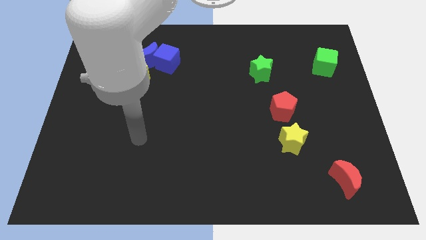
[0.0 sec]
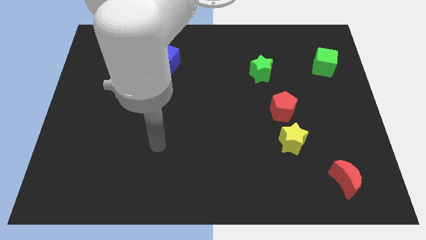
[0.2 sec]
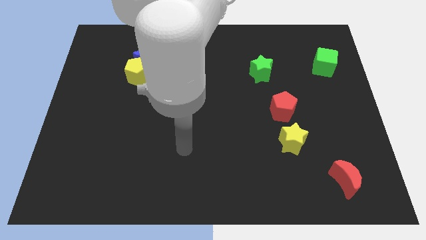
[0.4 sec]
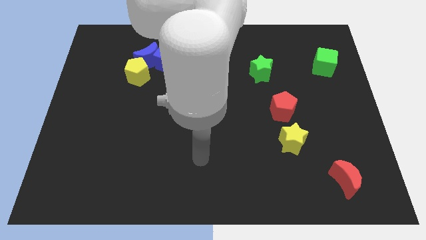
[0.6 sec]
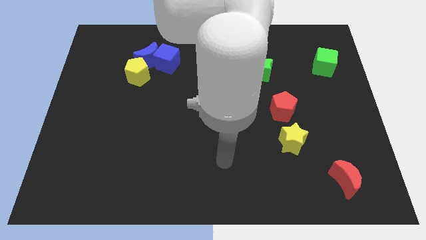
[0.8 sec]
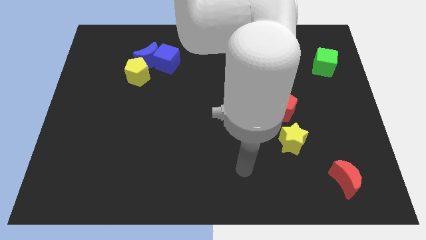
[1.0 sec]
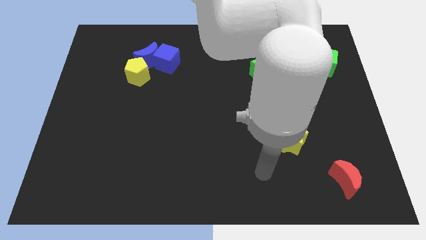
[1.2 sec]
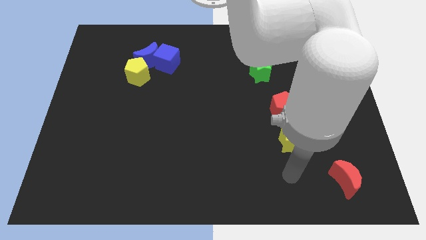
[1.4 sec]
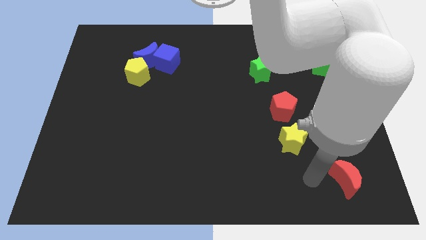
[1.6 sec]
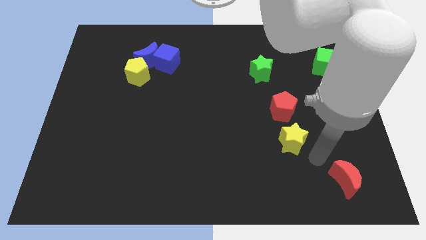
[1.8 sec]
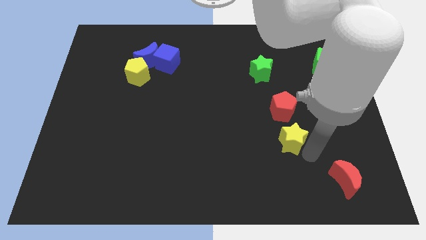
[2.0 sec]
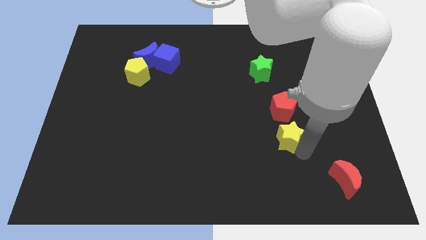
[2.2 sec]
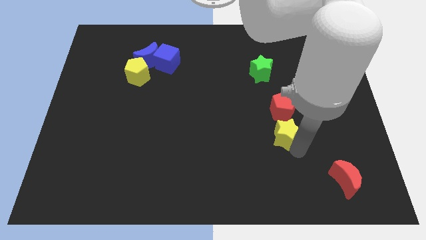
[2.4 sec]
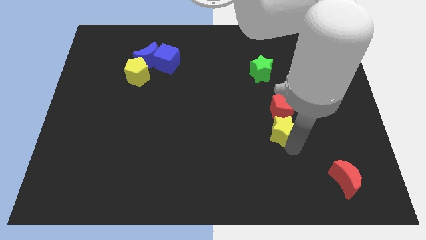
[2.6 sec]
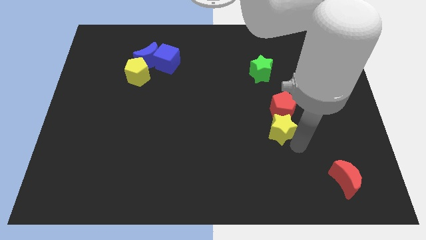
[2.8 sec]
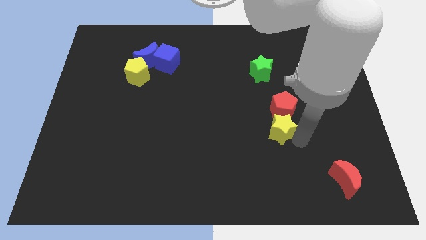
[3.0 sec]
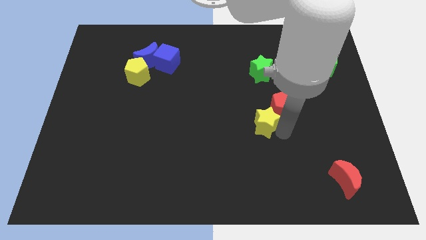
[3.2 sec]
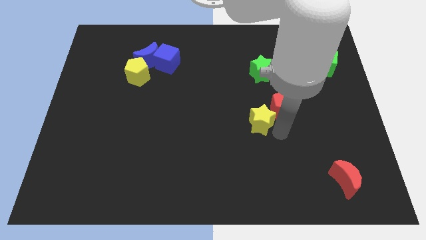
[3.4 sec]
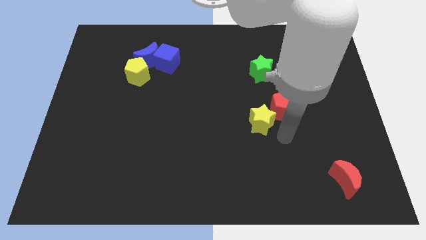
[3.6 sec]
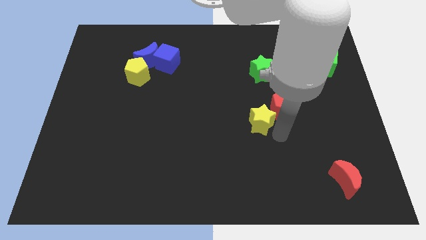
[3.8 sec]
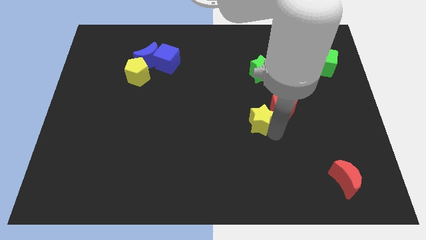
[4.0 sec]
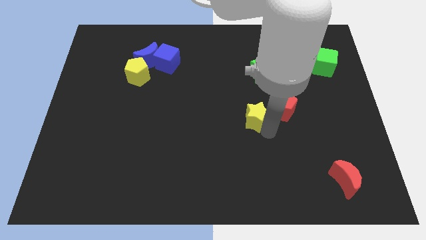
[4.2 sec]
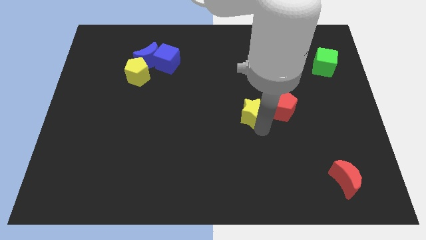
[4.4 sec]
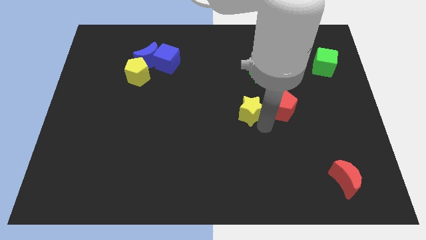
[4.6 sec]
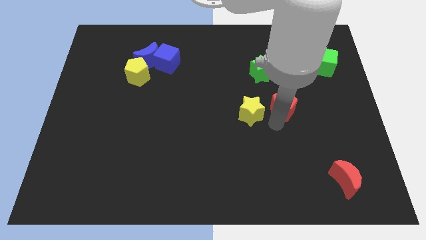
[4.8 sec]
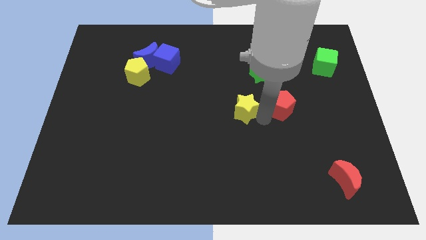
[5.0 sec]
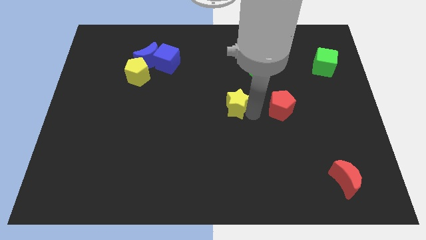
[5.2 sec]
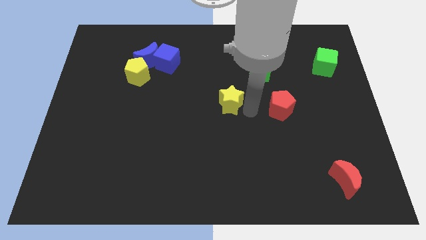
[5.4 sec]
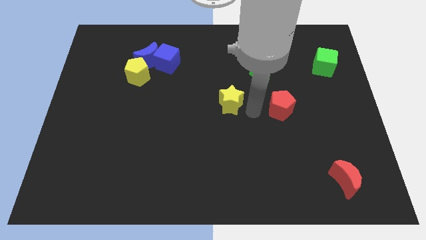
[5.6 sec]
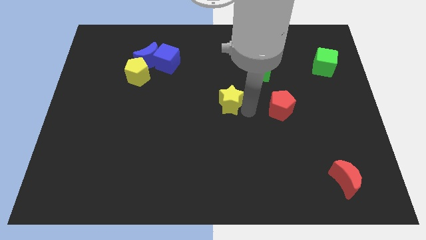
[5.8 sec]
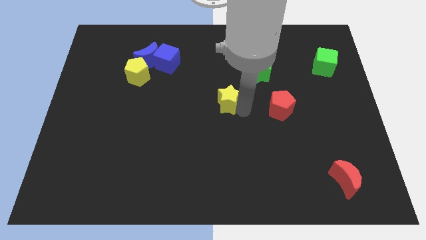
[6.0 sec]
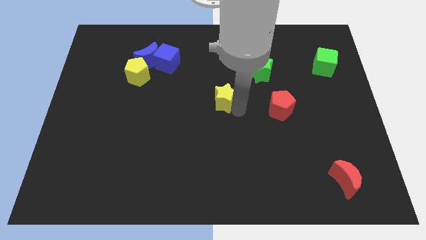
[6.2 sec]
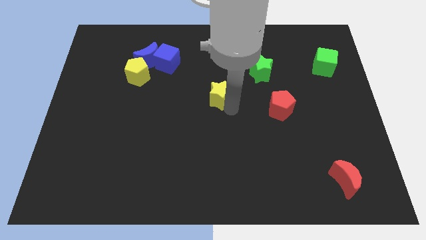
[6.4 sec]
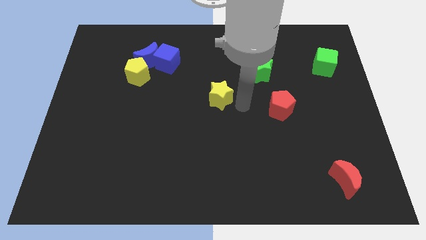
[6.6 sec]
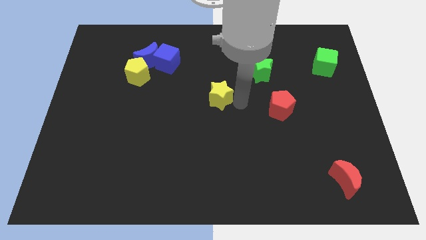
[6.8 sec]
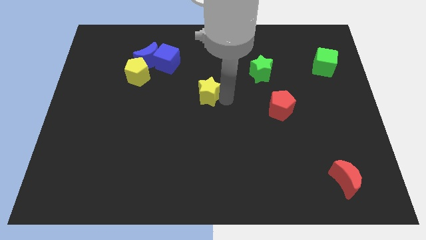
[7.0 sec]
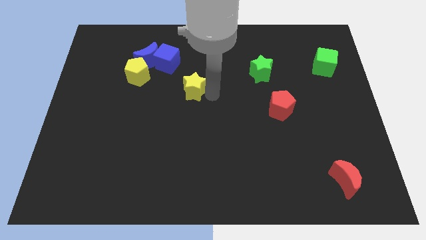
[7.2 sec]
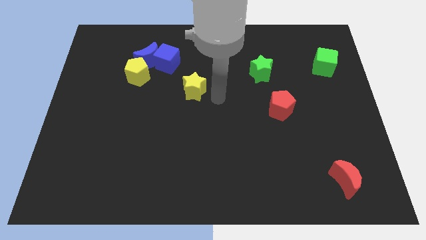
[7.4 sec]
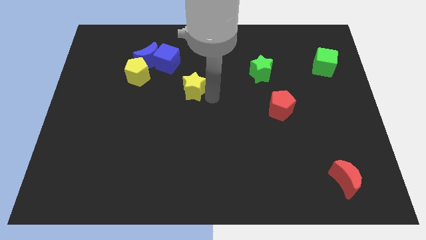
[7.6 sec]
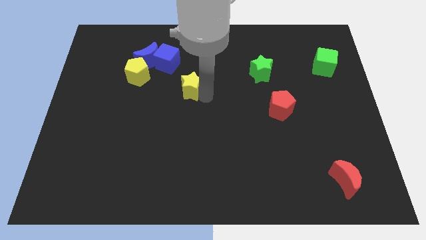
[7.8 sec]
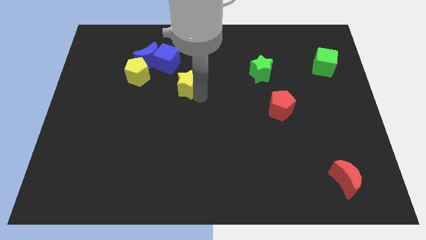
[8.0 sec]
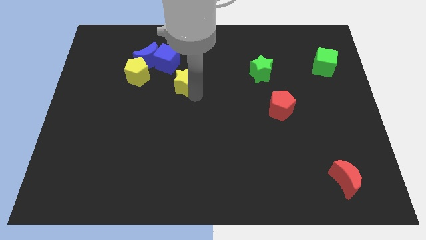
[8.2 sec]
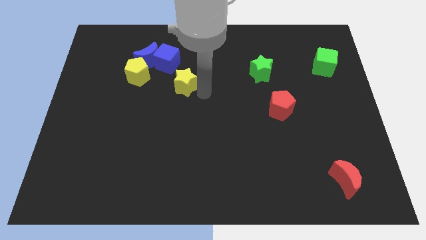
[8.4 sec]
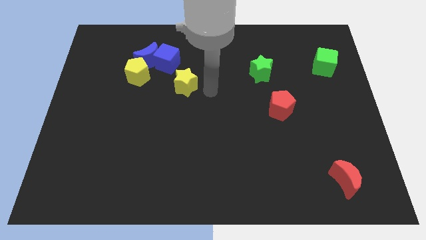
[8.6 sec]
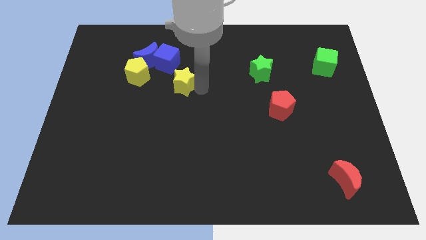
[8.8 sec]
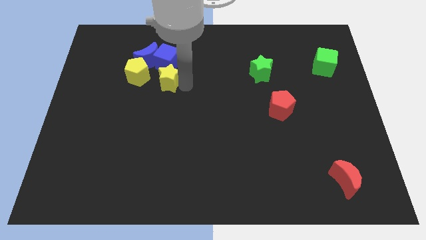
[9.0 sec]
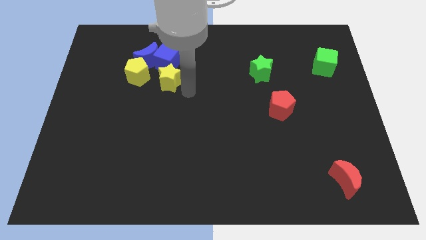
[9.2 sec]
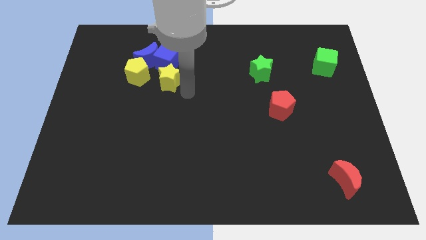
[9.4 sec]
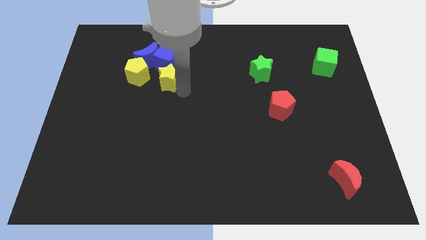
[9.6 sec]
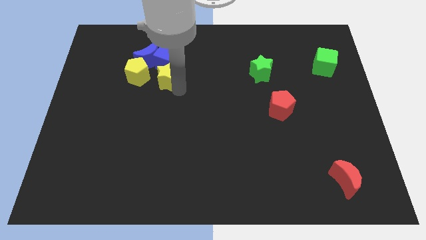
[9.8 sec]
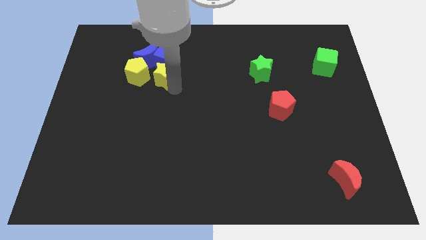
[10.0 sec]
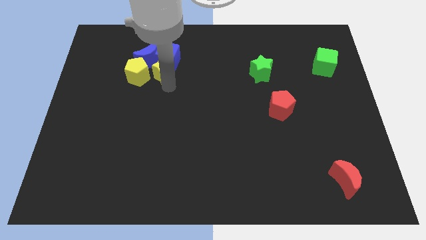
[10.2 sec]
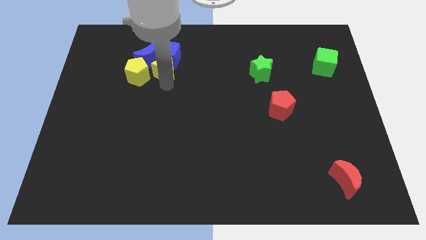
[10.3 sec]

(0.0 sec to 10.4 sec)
slide the yellow star towards the blue moon

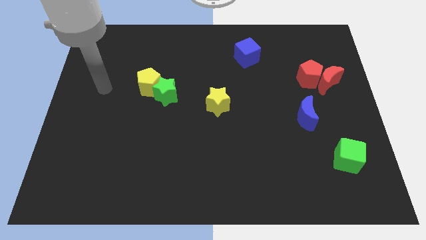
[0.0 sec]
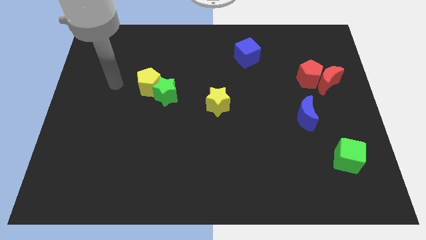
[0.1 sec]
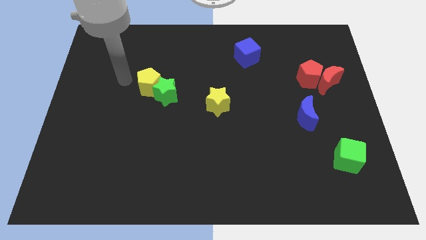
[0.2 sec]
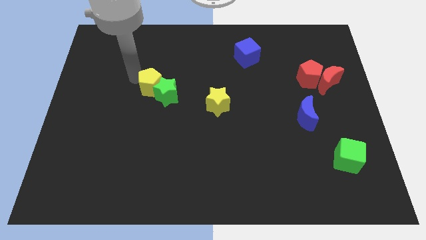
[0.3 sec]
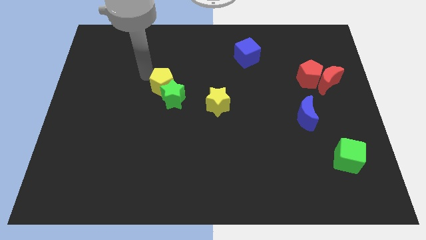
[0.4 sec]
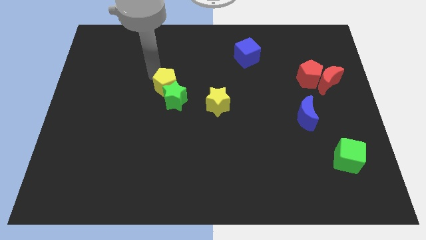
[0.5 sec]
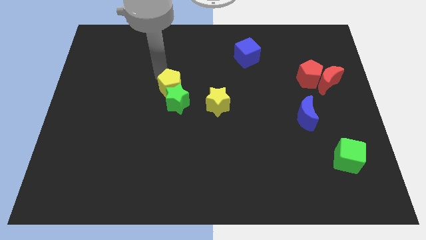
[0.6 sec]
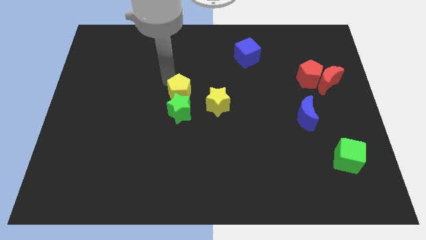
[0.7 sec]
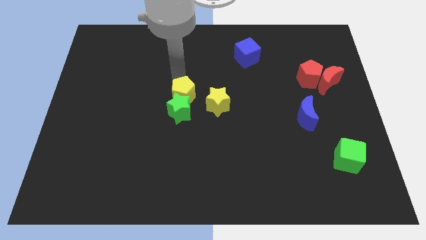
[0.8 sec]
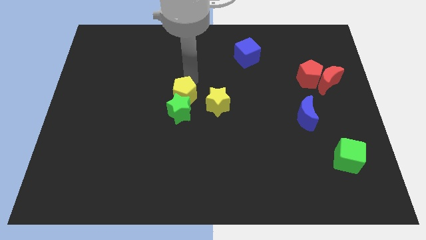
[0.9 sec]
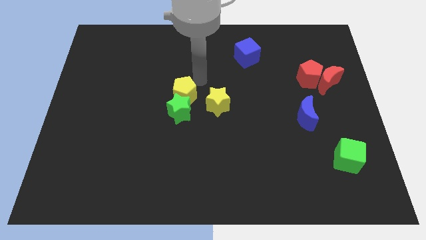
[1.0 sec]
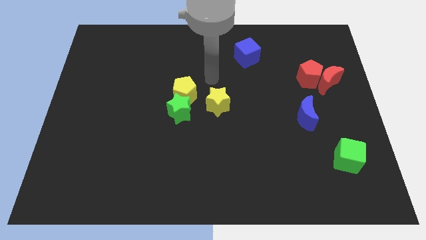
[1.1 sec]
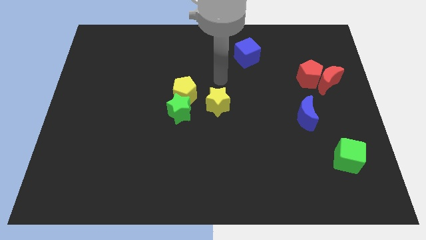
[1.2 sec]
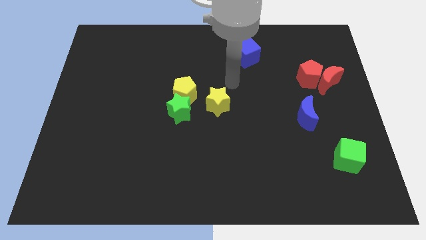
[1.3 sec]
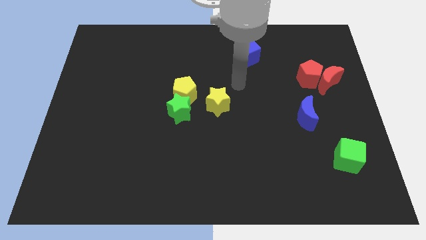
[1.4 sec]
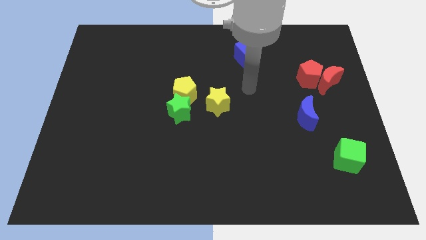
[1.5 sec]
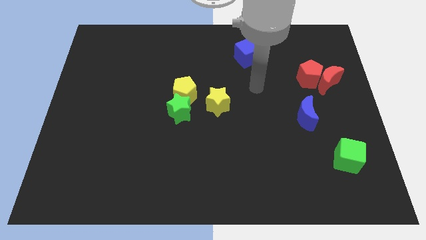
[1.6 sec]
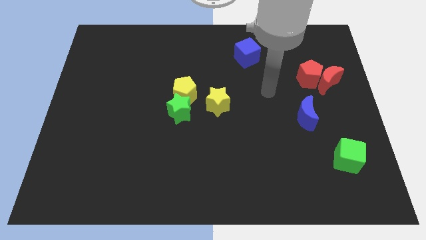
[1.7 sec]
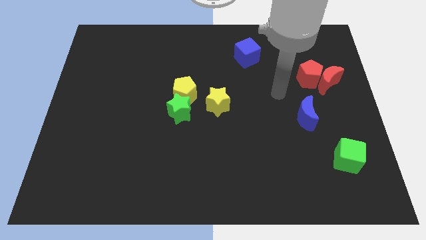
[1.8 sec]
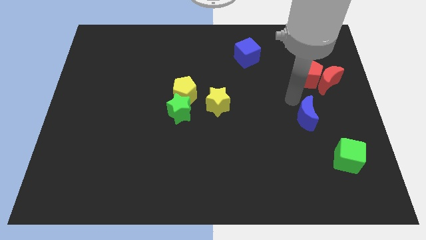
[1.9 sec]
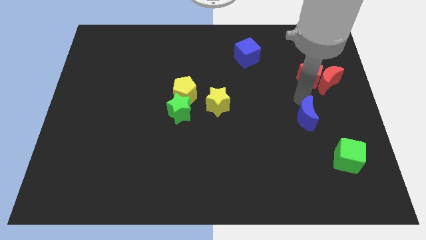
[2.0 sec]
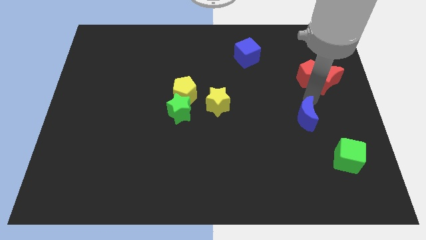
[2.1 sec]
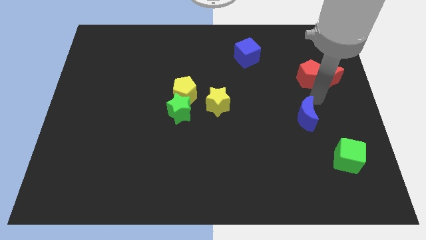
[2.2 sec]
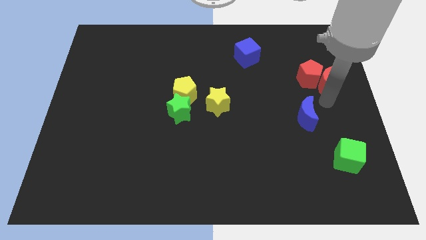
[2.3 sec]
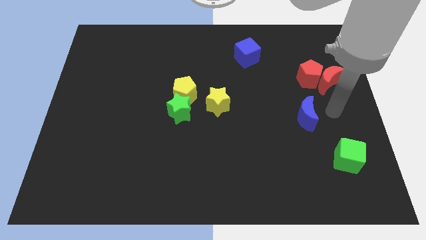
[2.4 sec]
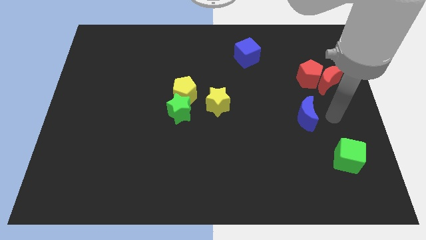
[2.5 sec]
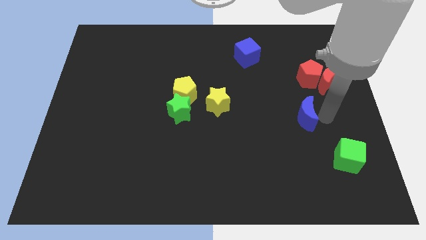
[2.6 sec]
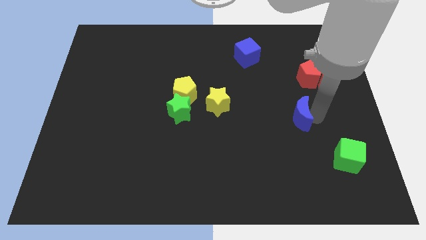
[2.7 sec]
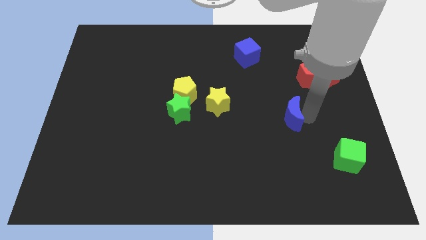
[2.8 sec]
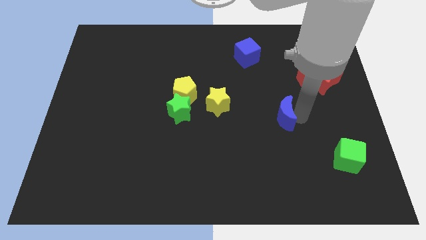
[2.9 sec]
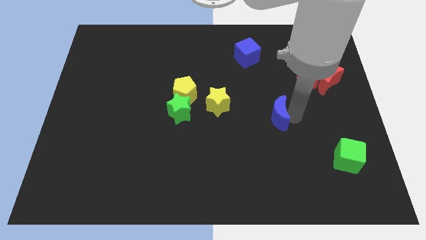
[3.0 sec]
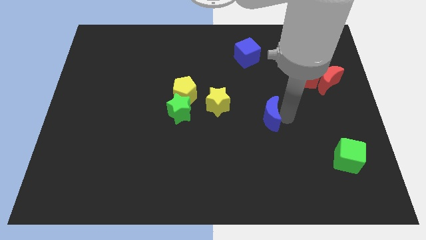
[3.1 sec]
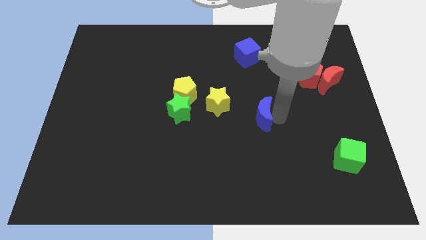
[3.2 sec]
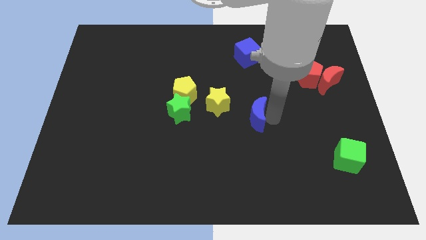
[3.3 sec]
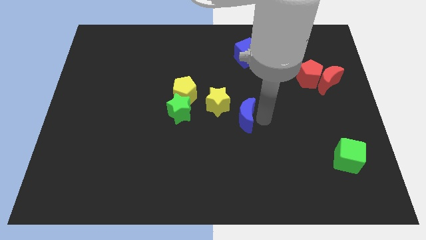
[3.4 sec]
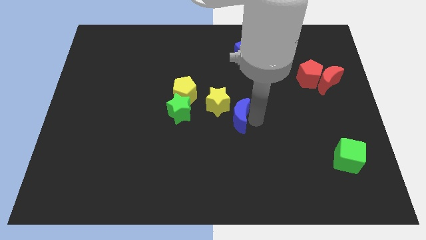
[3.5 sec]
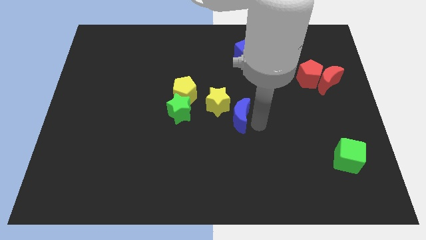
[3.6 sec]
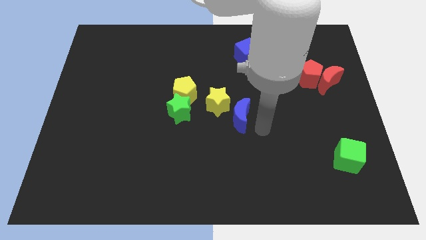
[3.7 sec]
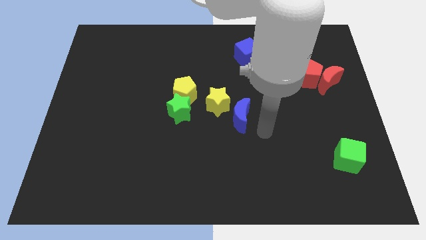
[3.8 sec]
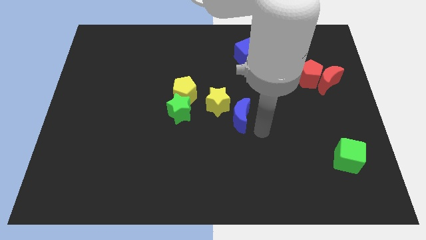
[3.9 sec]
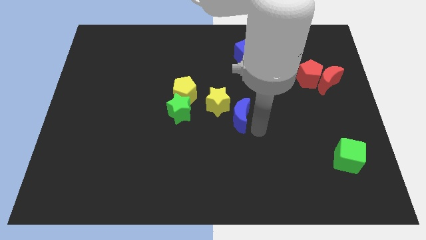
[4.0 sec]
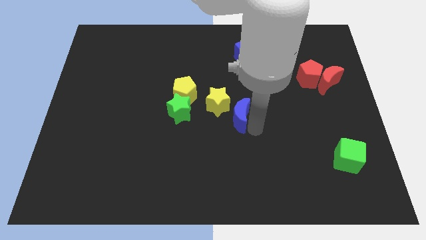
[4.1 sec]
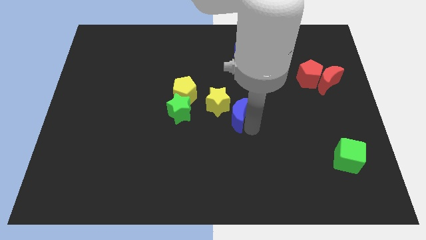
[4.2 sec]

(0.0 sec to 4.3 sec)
put the blue moon towards the yellow star
